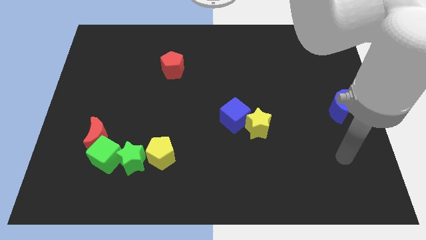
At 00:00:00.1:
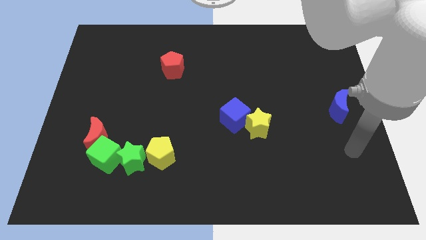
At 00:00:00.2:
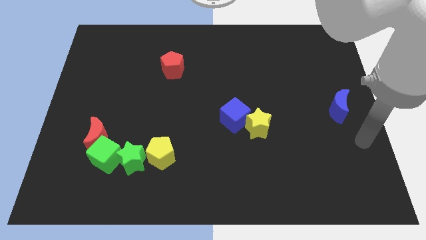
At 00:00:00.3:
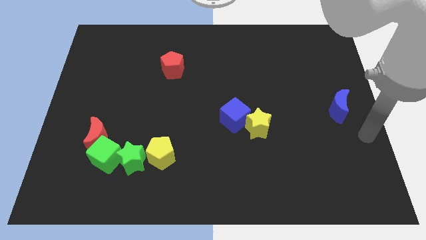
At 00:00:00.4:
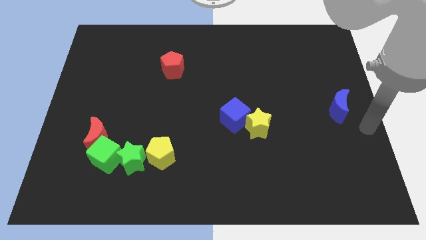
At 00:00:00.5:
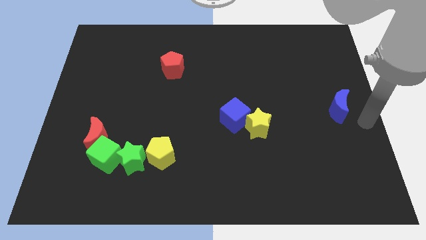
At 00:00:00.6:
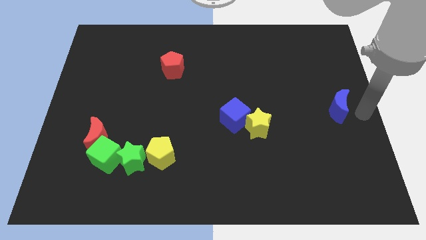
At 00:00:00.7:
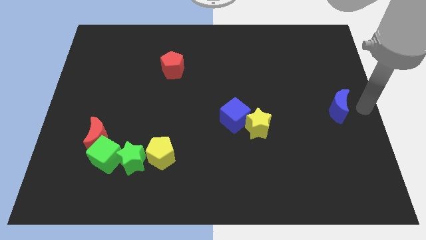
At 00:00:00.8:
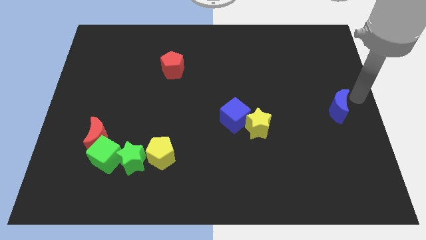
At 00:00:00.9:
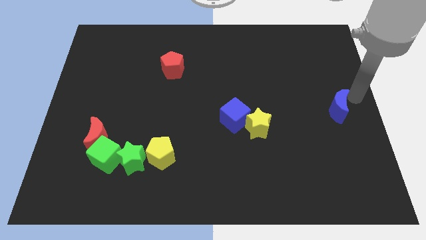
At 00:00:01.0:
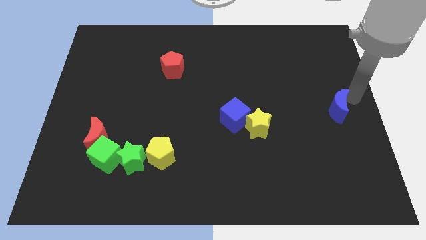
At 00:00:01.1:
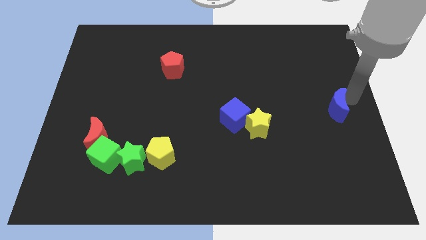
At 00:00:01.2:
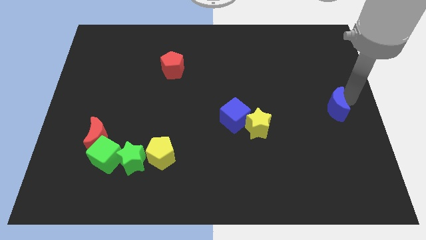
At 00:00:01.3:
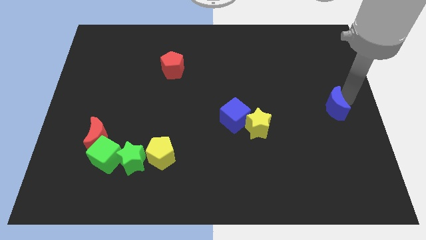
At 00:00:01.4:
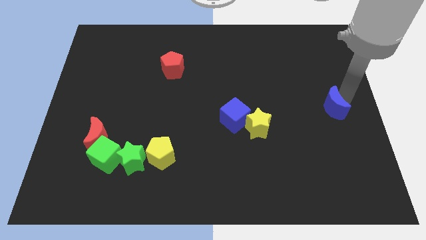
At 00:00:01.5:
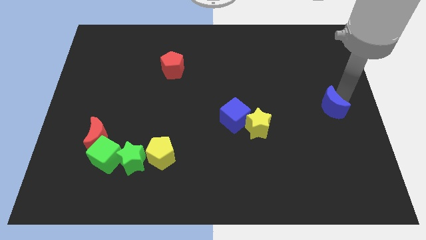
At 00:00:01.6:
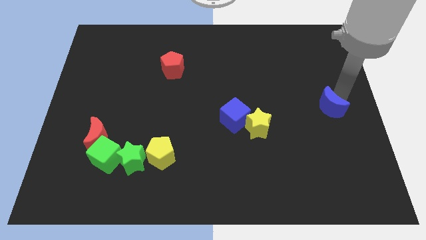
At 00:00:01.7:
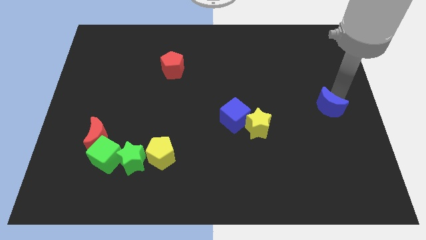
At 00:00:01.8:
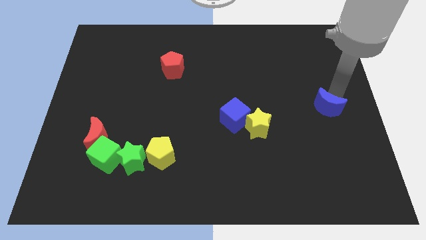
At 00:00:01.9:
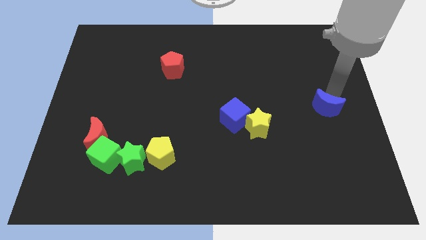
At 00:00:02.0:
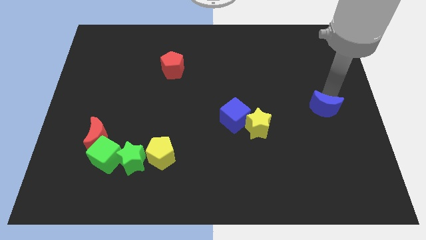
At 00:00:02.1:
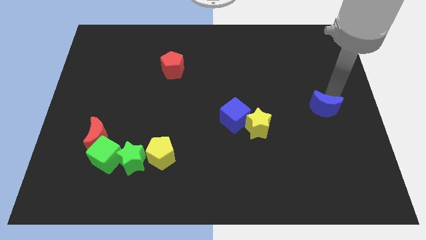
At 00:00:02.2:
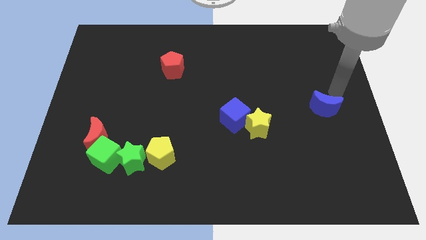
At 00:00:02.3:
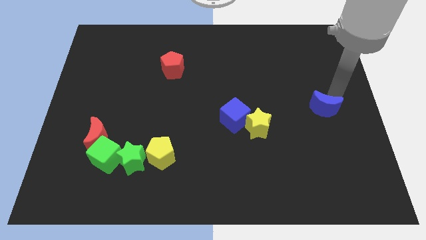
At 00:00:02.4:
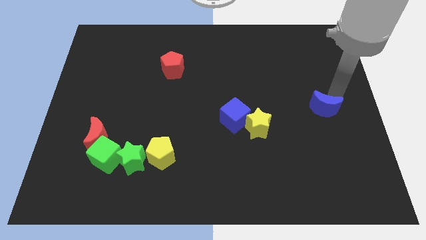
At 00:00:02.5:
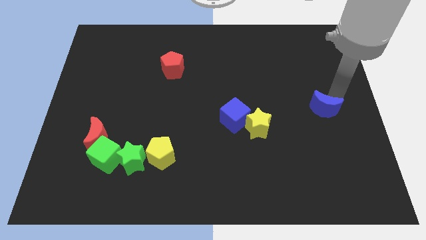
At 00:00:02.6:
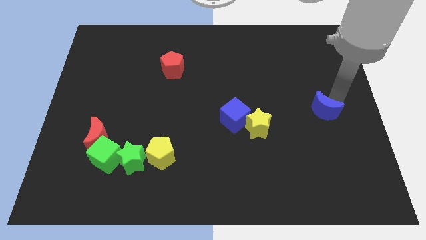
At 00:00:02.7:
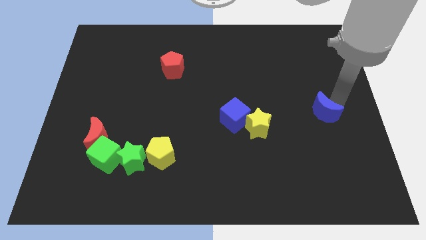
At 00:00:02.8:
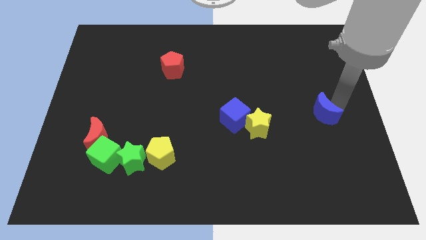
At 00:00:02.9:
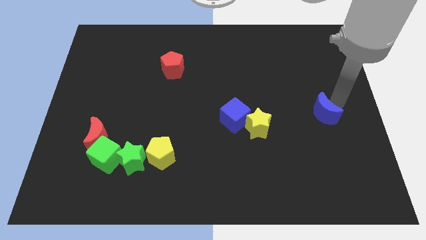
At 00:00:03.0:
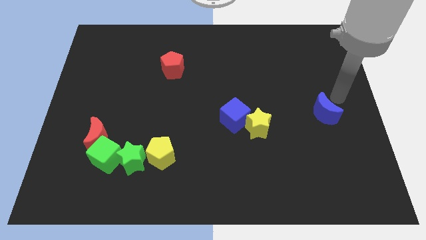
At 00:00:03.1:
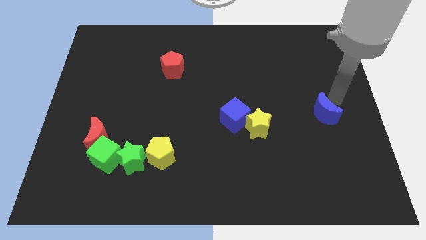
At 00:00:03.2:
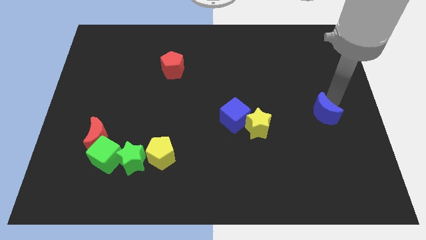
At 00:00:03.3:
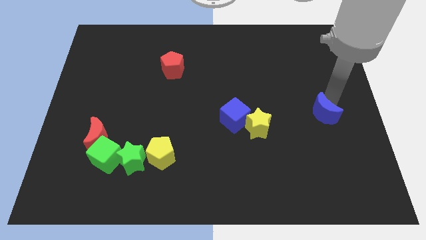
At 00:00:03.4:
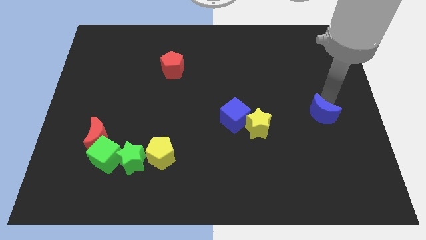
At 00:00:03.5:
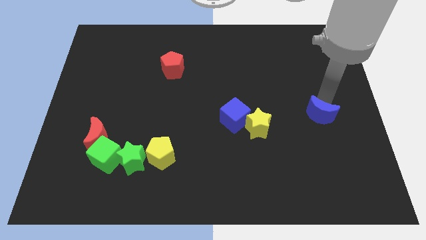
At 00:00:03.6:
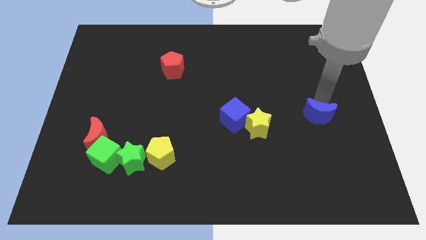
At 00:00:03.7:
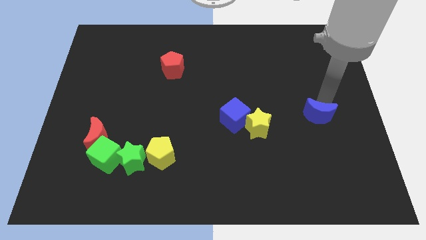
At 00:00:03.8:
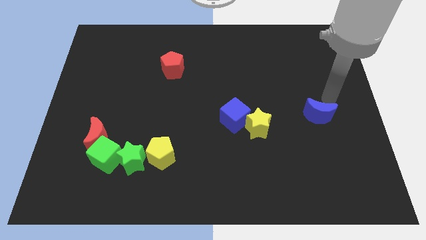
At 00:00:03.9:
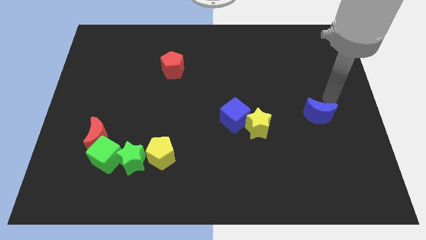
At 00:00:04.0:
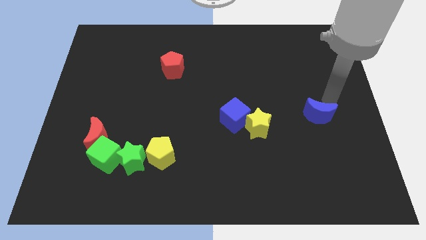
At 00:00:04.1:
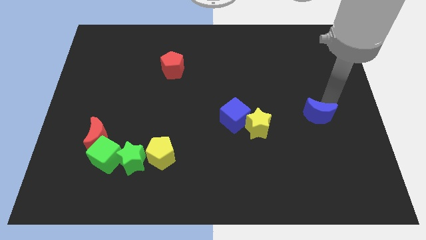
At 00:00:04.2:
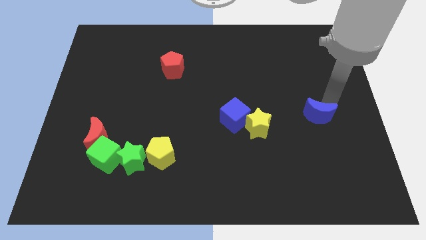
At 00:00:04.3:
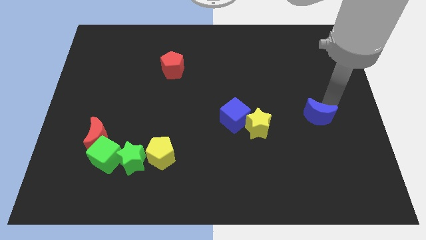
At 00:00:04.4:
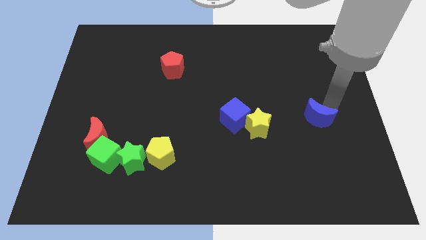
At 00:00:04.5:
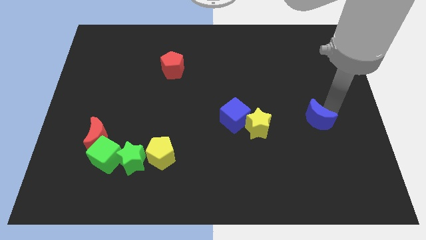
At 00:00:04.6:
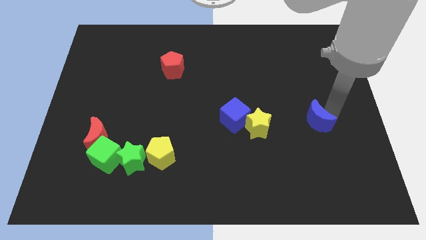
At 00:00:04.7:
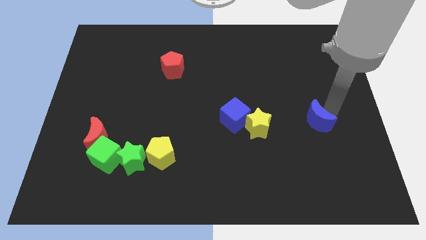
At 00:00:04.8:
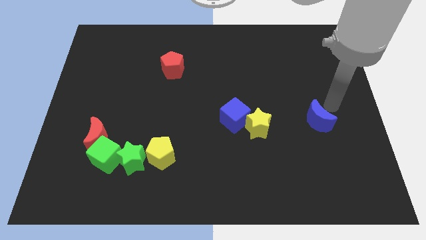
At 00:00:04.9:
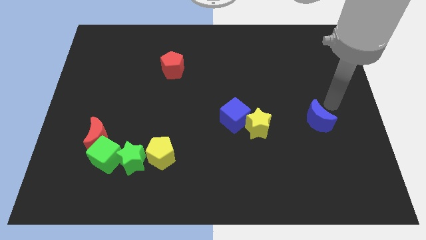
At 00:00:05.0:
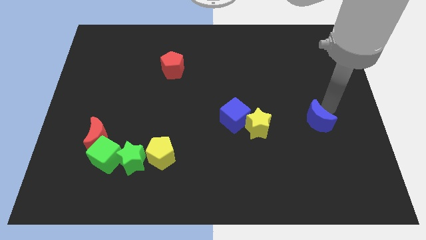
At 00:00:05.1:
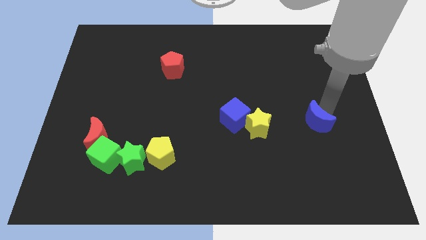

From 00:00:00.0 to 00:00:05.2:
slide the blue moon a bit diagonally downwards and left

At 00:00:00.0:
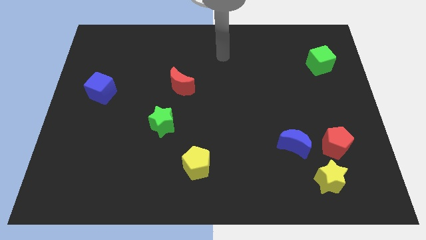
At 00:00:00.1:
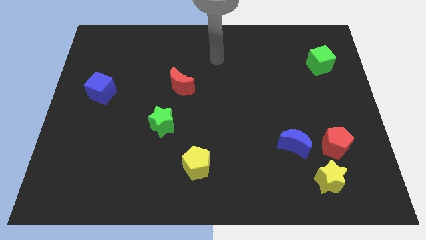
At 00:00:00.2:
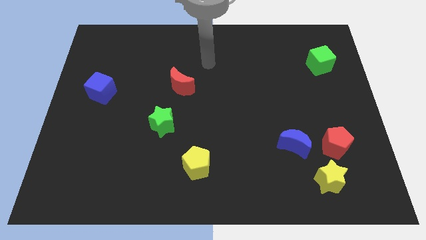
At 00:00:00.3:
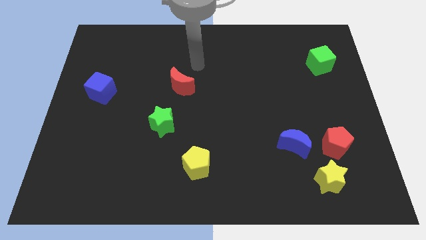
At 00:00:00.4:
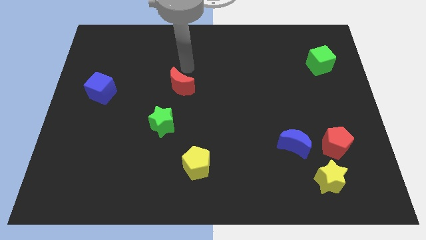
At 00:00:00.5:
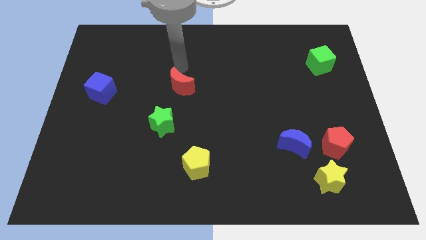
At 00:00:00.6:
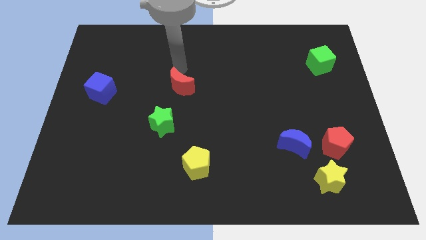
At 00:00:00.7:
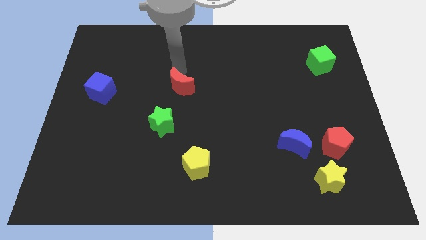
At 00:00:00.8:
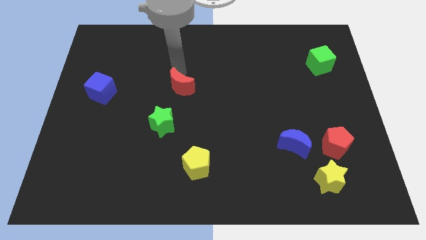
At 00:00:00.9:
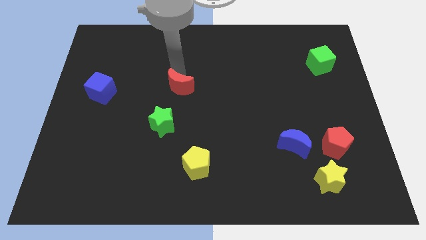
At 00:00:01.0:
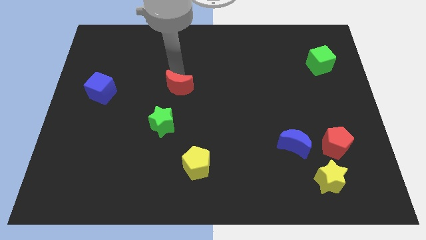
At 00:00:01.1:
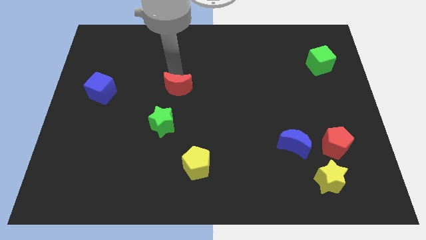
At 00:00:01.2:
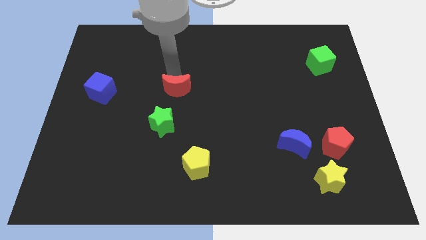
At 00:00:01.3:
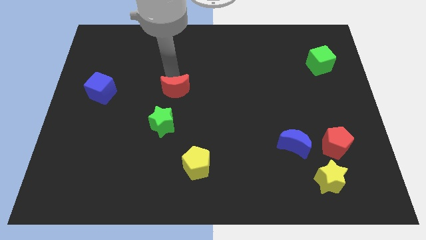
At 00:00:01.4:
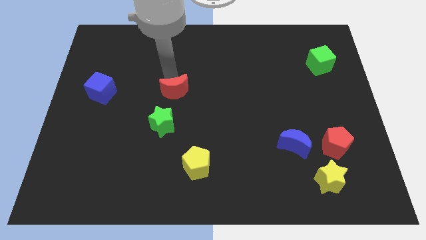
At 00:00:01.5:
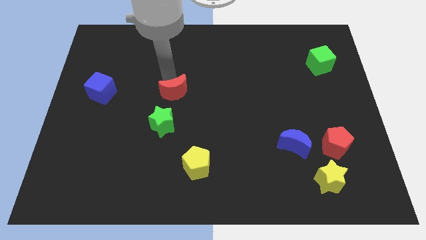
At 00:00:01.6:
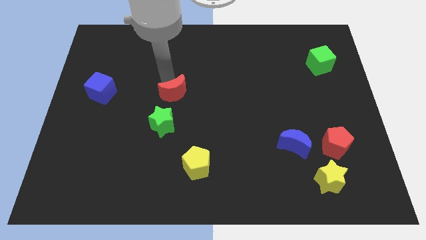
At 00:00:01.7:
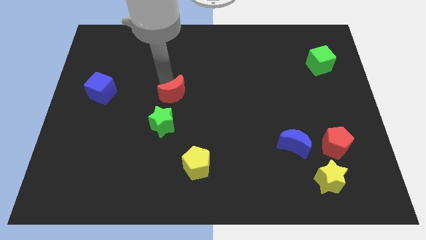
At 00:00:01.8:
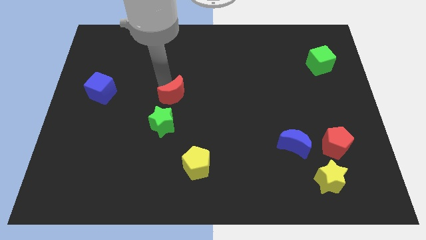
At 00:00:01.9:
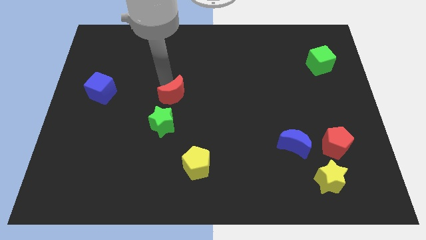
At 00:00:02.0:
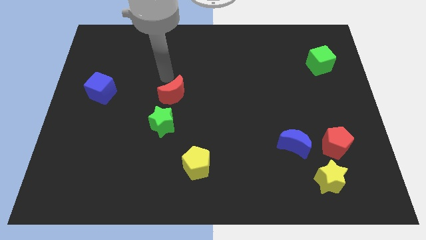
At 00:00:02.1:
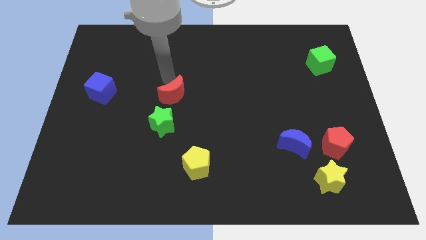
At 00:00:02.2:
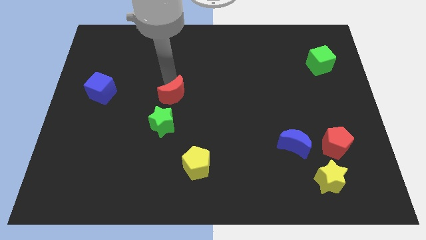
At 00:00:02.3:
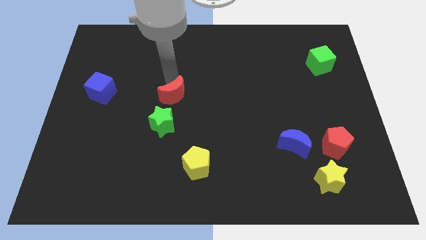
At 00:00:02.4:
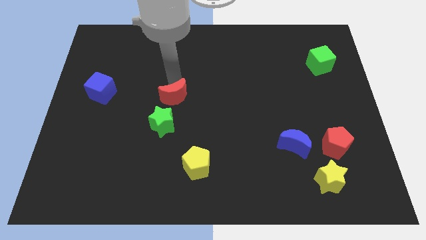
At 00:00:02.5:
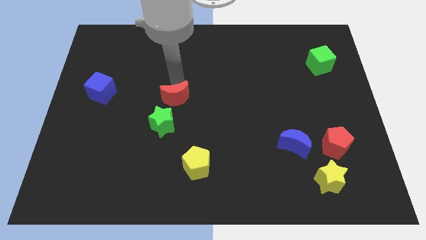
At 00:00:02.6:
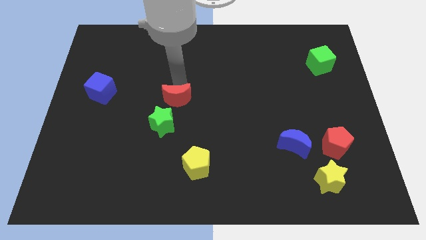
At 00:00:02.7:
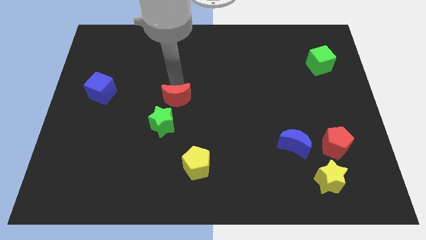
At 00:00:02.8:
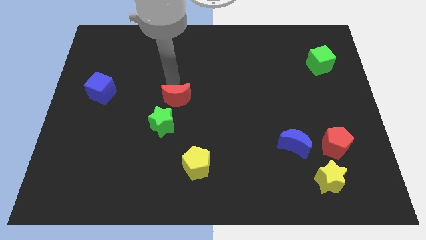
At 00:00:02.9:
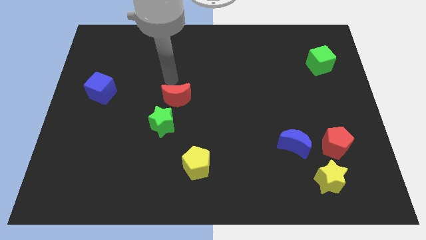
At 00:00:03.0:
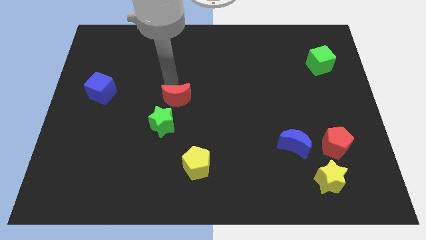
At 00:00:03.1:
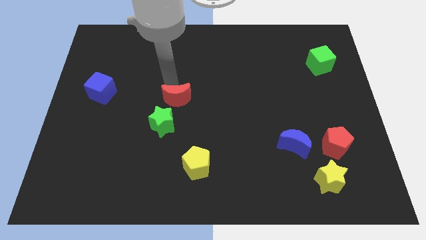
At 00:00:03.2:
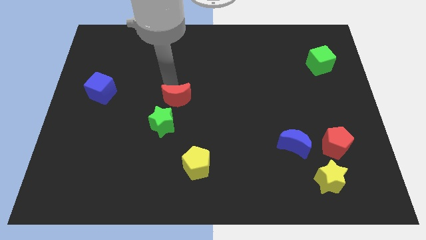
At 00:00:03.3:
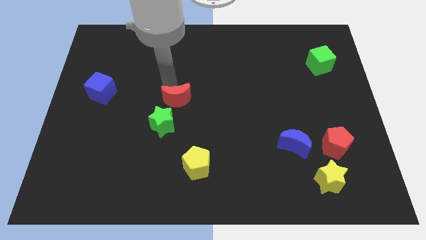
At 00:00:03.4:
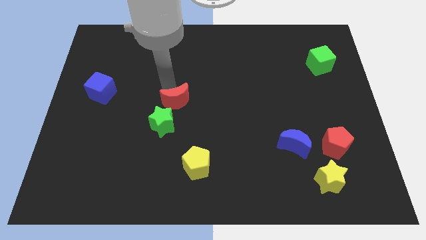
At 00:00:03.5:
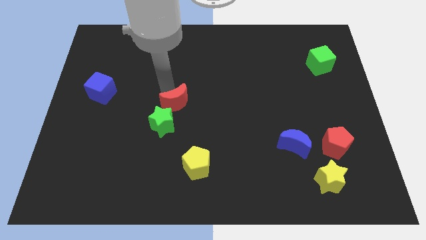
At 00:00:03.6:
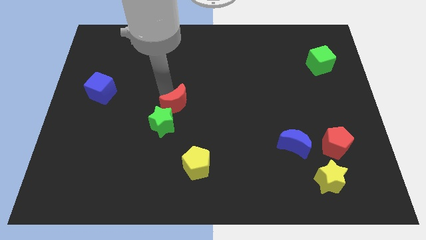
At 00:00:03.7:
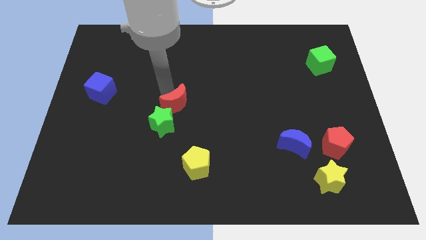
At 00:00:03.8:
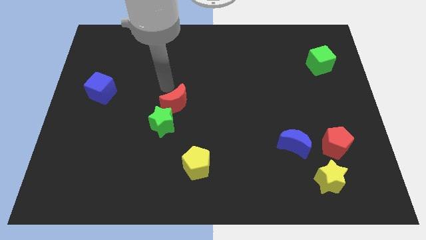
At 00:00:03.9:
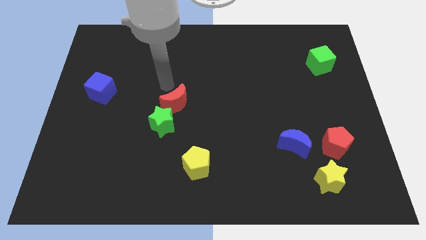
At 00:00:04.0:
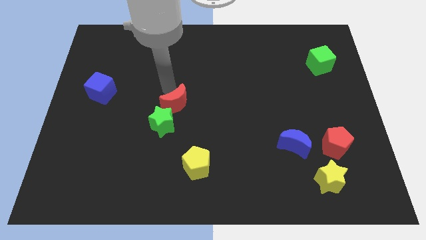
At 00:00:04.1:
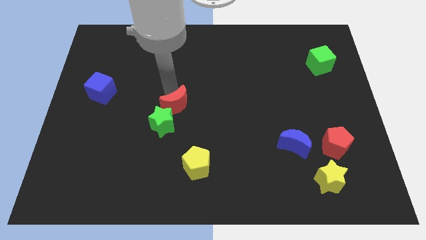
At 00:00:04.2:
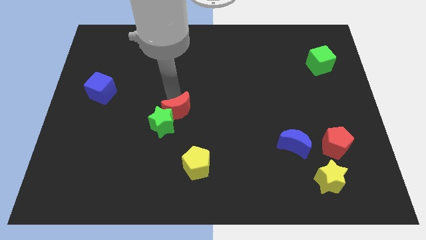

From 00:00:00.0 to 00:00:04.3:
push the red moon slightly downwards
